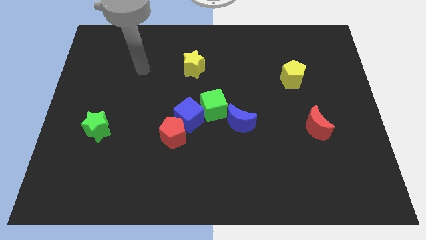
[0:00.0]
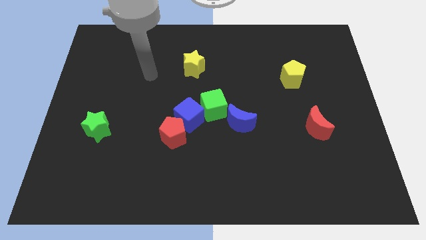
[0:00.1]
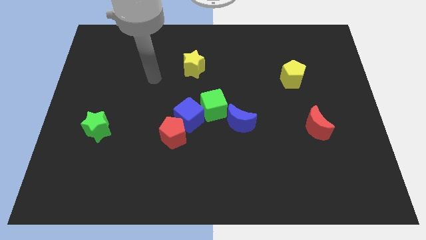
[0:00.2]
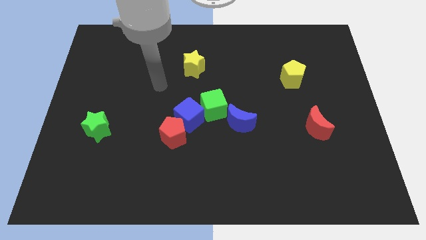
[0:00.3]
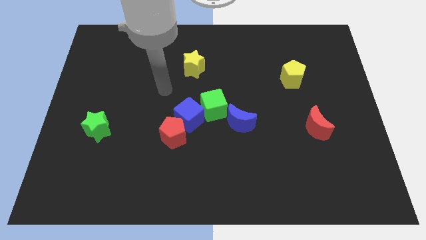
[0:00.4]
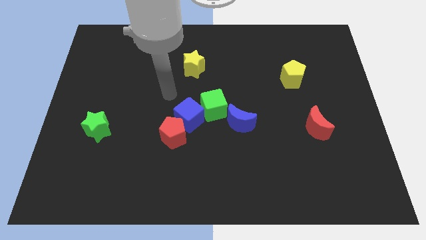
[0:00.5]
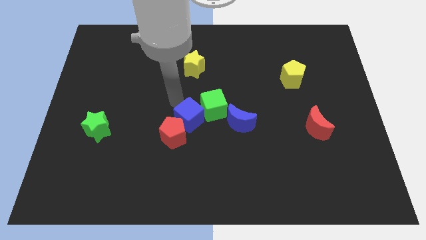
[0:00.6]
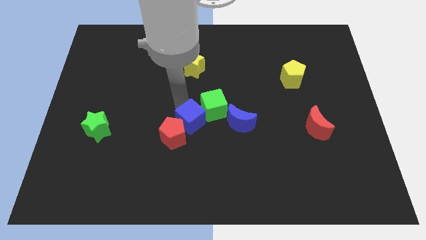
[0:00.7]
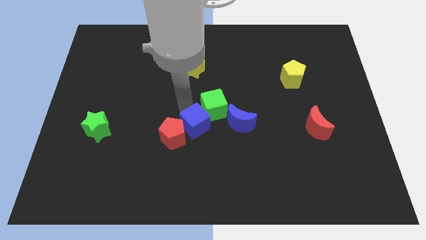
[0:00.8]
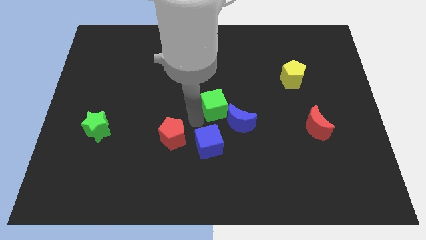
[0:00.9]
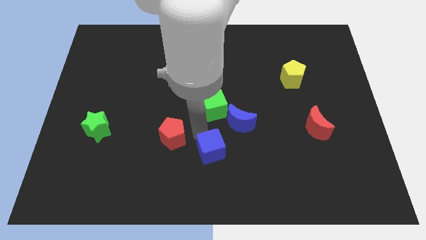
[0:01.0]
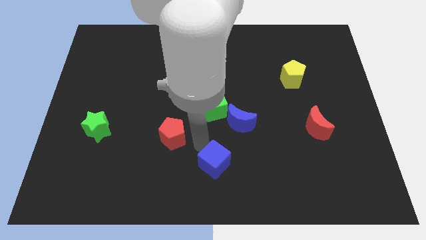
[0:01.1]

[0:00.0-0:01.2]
move the red pentagon away from the blue cube

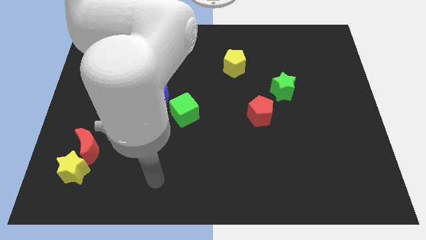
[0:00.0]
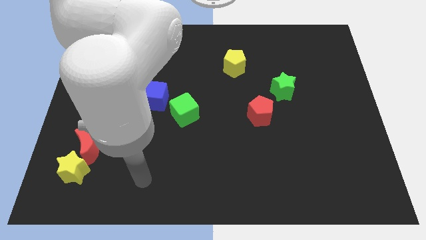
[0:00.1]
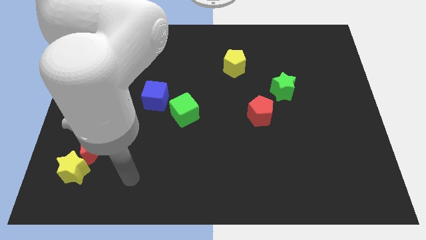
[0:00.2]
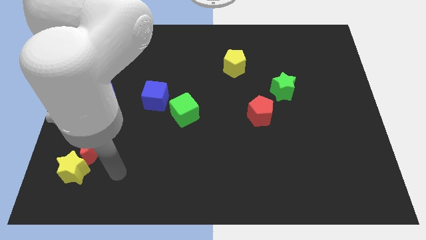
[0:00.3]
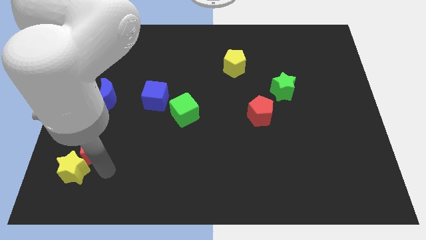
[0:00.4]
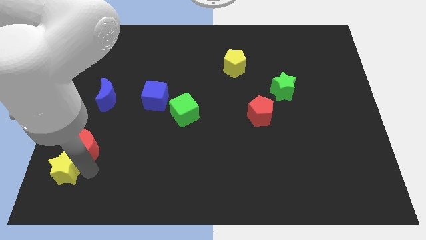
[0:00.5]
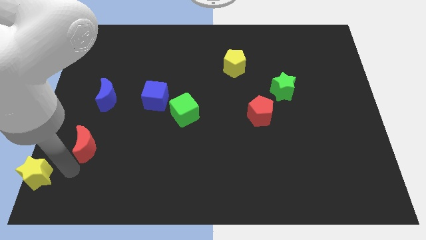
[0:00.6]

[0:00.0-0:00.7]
move the red moon away from the yellow star

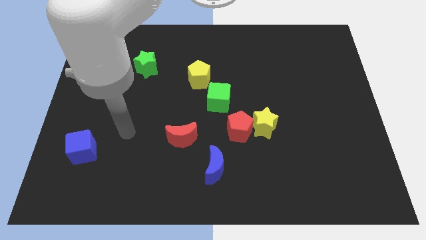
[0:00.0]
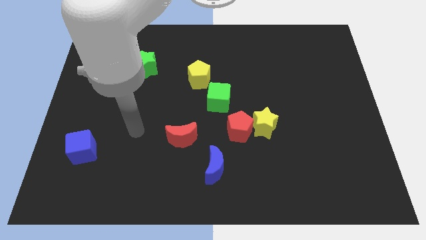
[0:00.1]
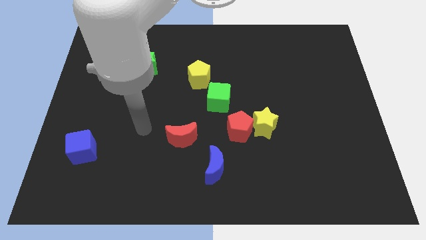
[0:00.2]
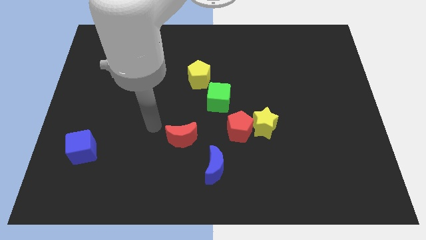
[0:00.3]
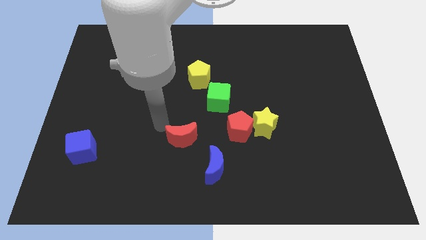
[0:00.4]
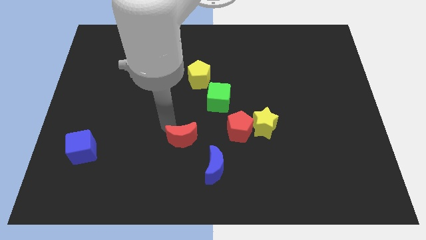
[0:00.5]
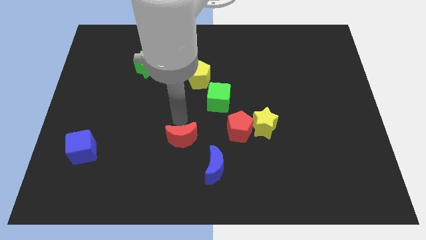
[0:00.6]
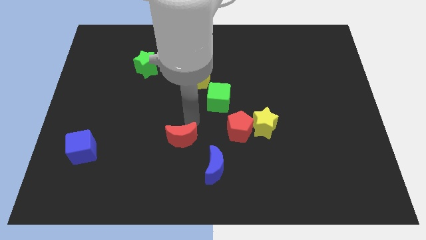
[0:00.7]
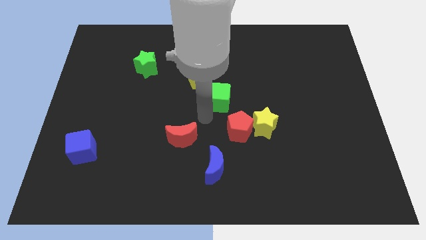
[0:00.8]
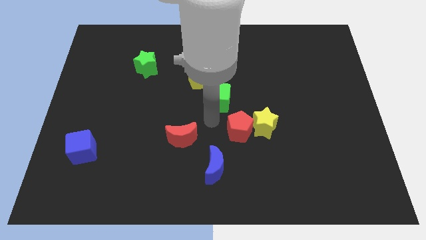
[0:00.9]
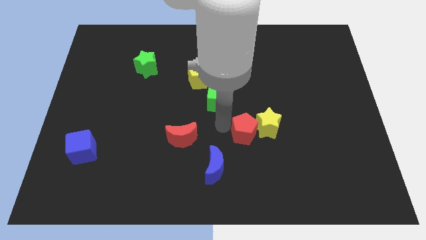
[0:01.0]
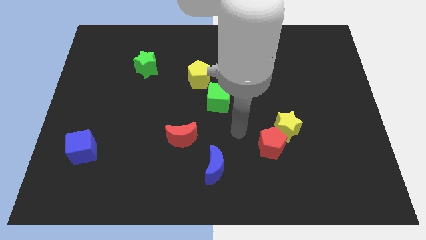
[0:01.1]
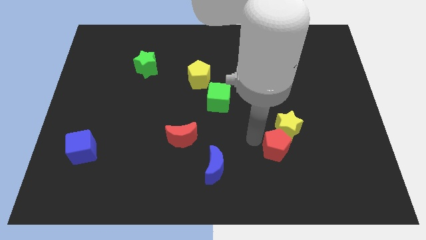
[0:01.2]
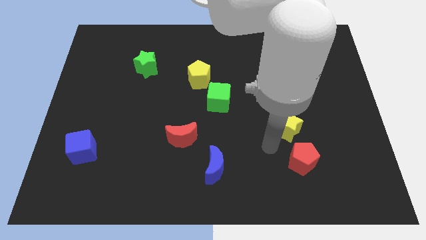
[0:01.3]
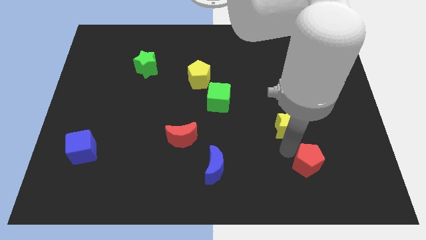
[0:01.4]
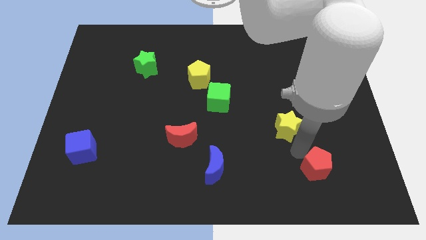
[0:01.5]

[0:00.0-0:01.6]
separate the yellow star from the red pentagon

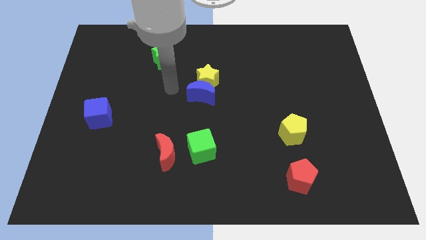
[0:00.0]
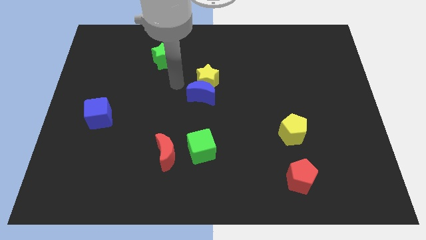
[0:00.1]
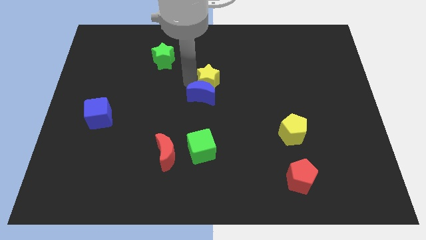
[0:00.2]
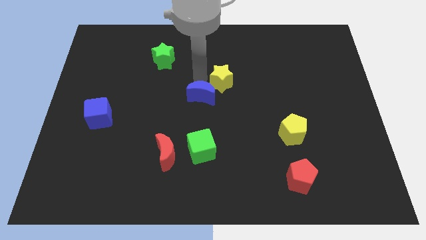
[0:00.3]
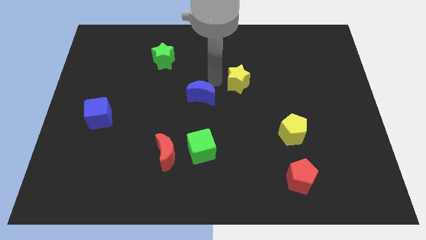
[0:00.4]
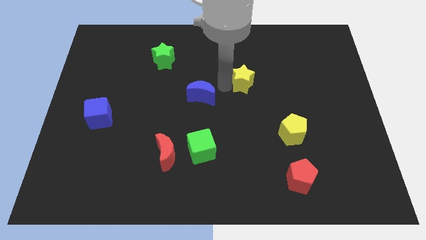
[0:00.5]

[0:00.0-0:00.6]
move the blue moon away from the yellow star

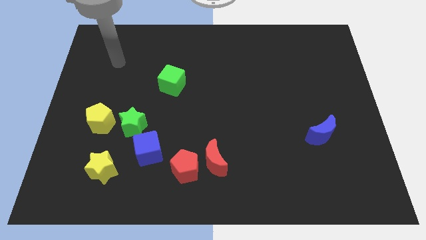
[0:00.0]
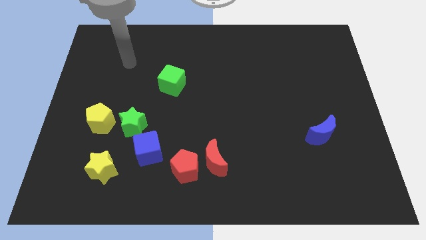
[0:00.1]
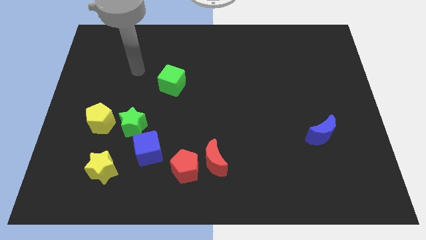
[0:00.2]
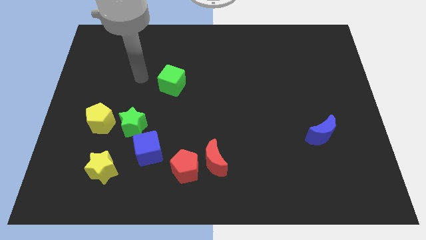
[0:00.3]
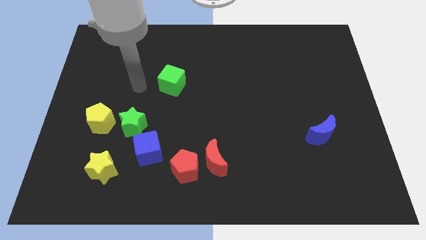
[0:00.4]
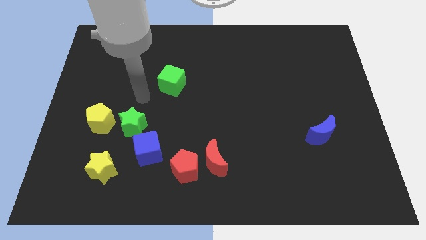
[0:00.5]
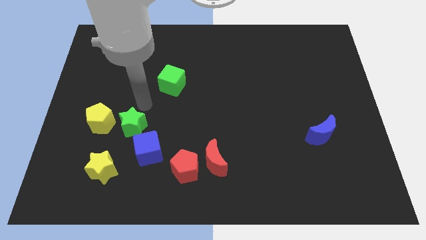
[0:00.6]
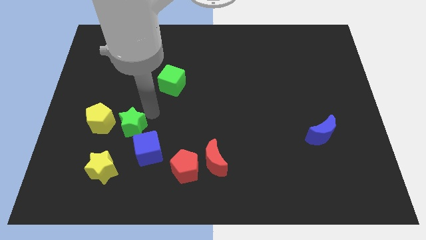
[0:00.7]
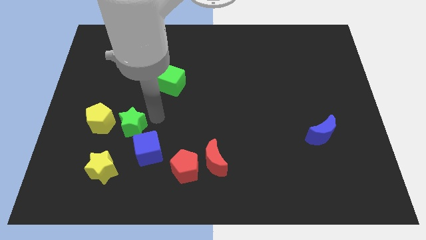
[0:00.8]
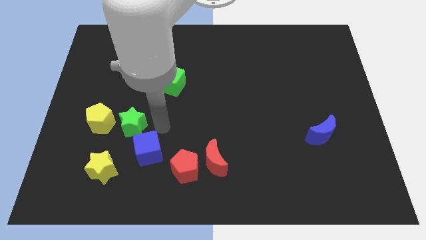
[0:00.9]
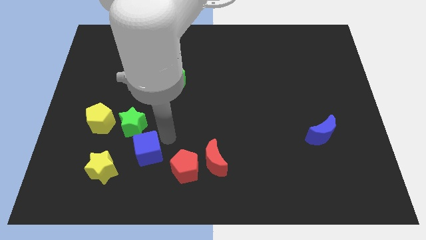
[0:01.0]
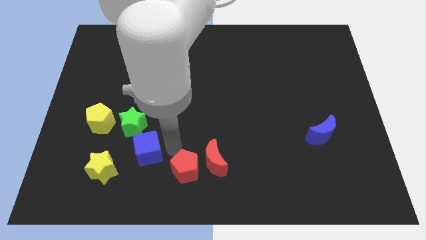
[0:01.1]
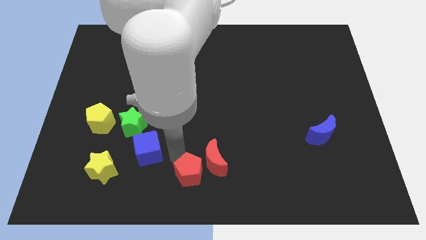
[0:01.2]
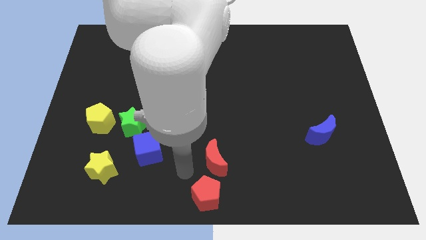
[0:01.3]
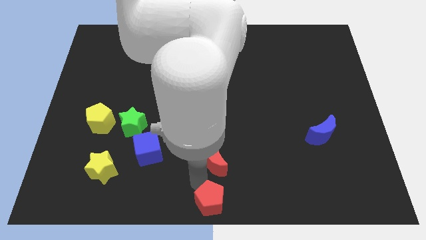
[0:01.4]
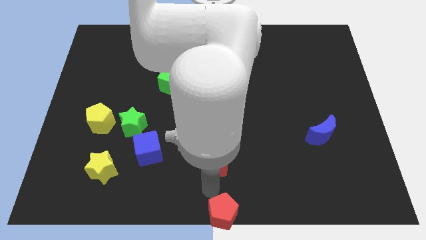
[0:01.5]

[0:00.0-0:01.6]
separate the red moon from the red pentagon

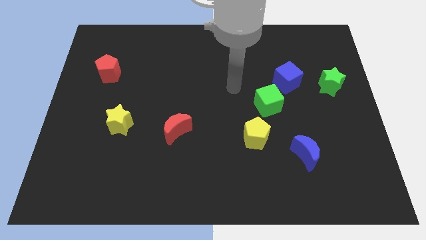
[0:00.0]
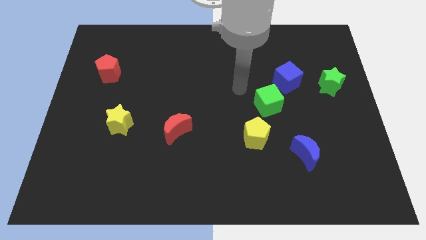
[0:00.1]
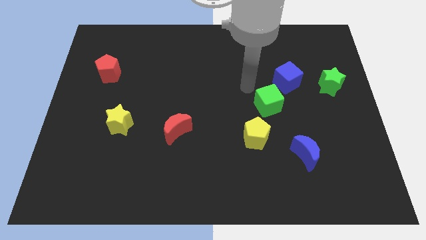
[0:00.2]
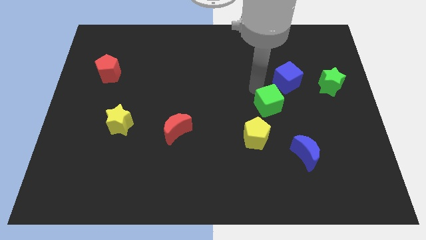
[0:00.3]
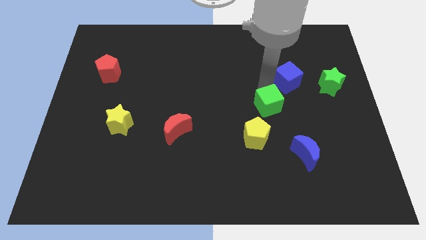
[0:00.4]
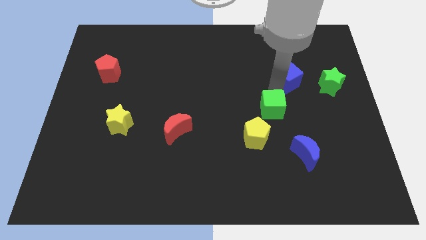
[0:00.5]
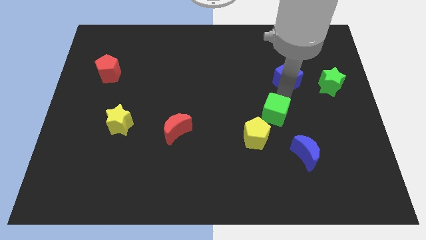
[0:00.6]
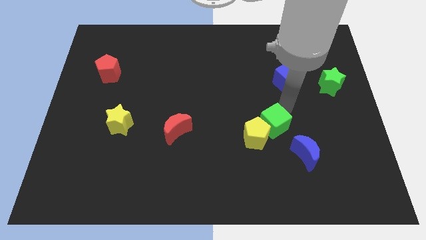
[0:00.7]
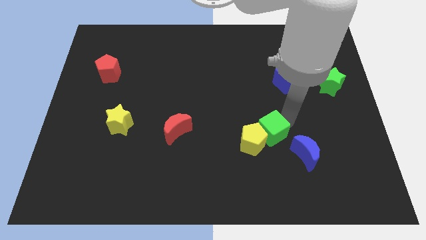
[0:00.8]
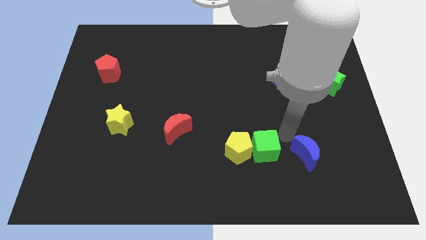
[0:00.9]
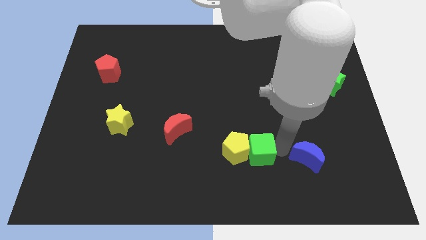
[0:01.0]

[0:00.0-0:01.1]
move the green cube away from the blue cube and yellow pentagon

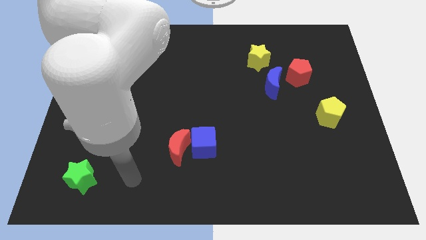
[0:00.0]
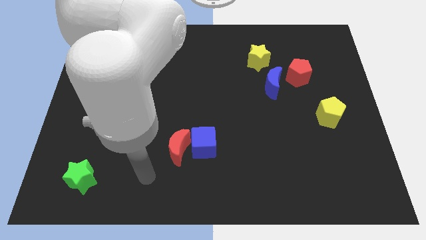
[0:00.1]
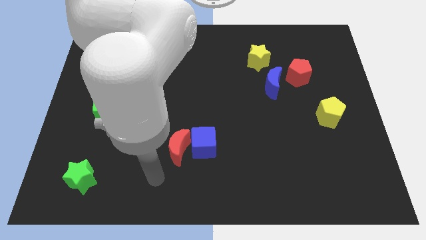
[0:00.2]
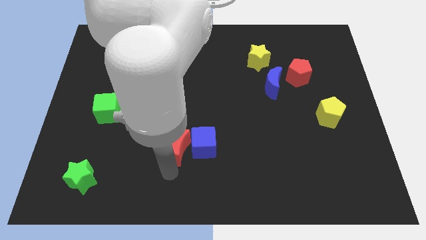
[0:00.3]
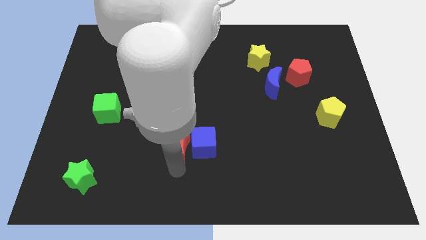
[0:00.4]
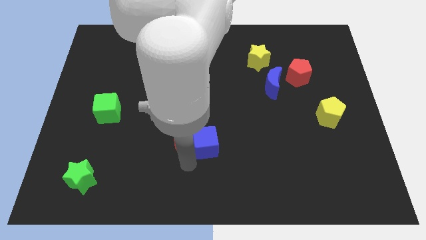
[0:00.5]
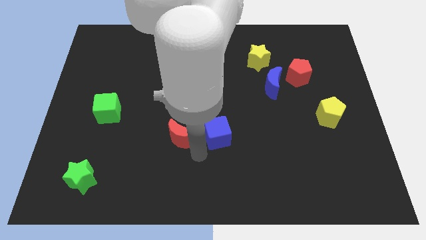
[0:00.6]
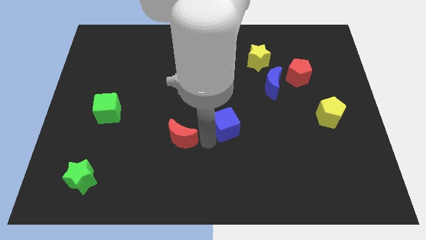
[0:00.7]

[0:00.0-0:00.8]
move the red moon away from the blue cube

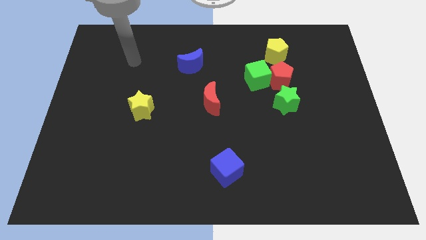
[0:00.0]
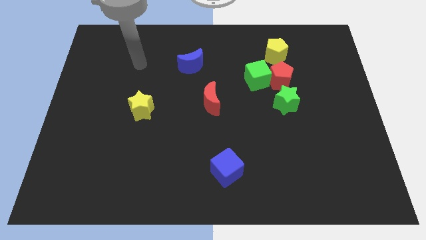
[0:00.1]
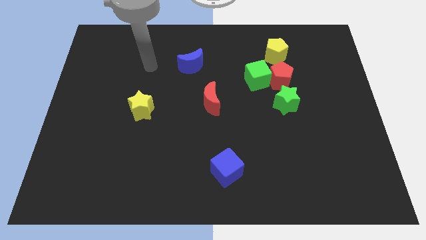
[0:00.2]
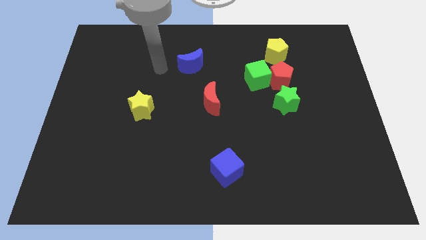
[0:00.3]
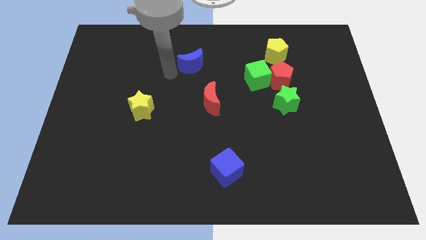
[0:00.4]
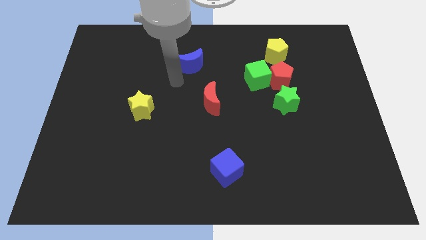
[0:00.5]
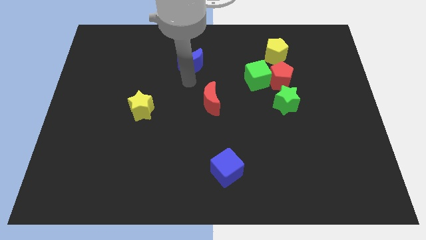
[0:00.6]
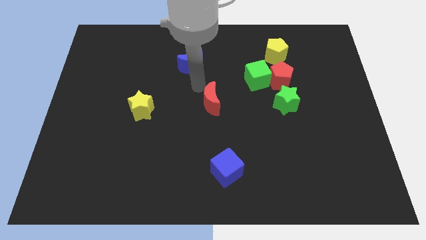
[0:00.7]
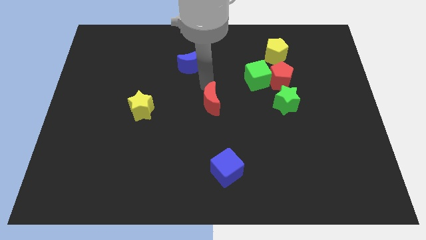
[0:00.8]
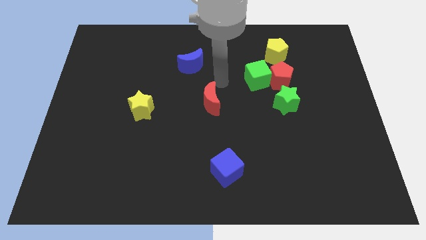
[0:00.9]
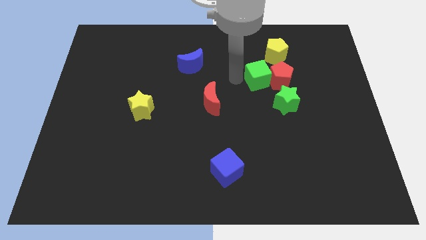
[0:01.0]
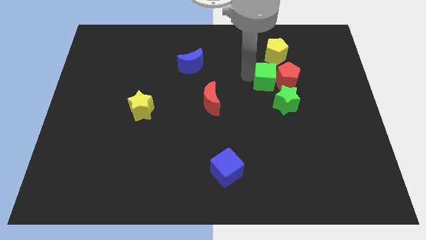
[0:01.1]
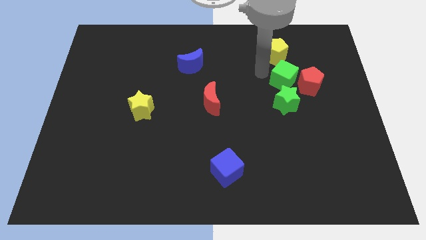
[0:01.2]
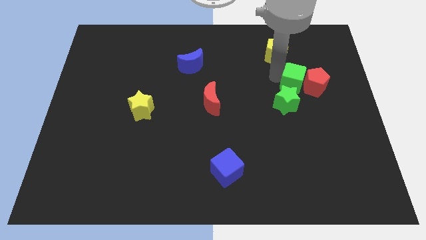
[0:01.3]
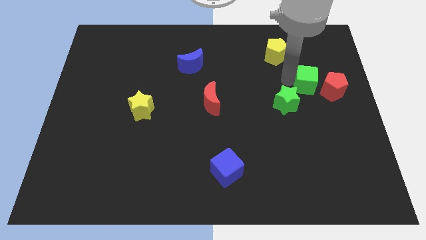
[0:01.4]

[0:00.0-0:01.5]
separate the red pentagon from the green cube, green star, and yellow pentagon

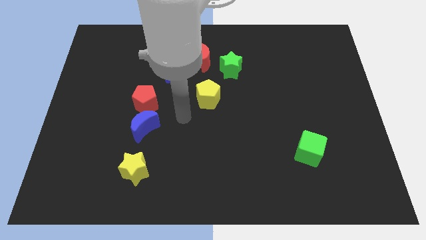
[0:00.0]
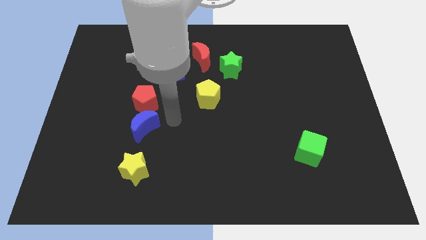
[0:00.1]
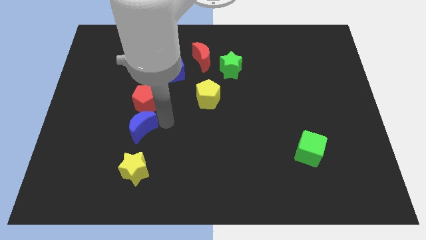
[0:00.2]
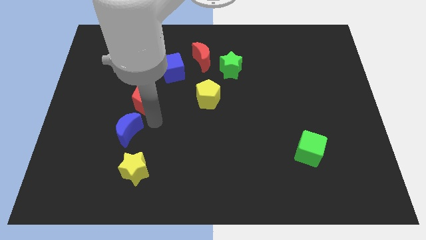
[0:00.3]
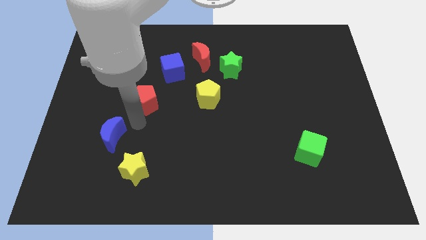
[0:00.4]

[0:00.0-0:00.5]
move the red pentagon away from the blue moon
